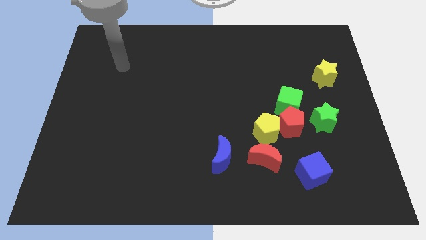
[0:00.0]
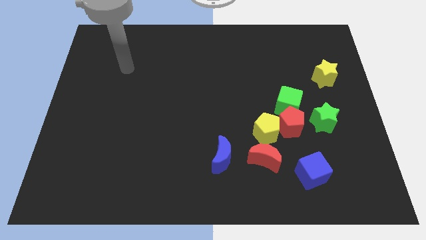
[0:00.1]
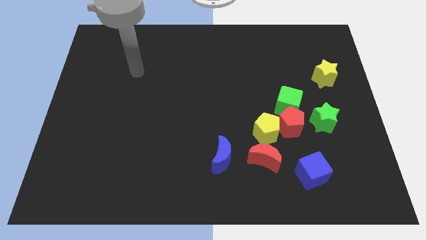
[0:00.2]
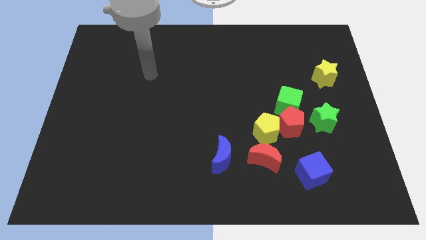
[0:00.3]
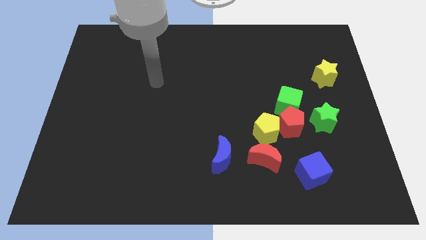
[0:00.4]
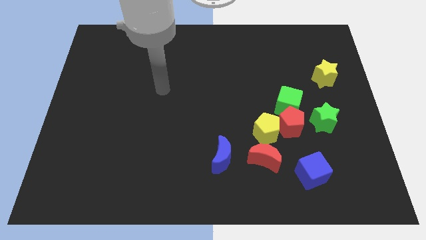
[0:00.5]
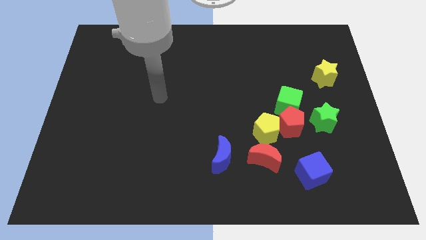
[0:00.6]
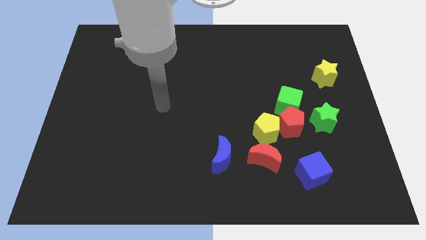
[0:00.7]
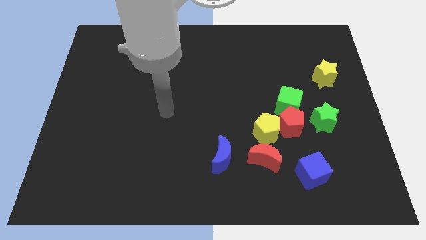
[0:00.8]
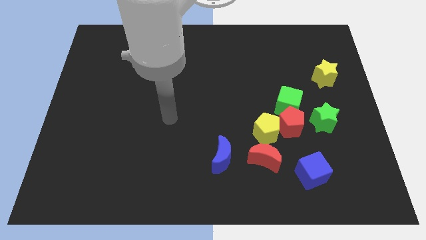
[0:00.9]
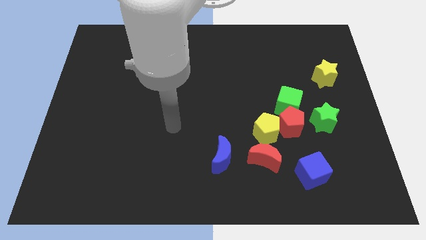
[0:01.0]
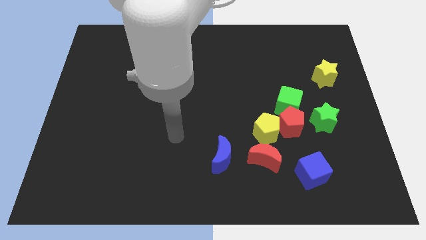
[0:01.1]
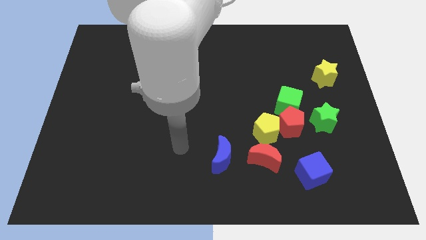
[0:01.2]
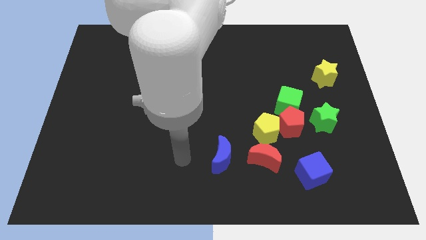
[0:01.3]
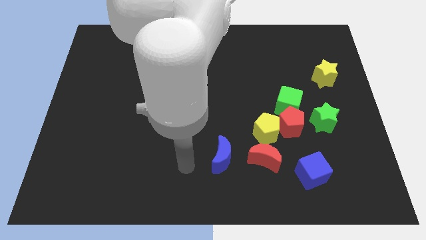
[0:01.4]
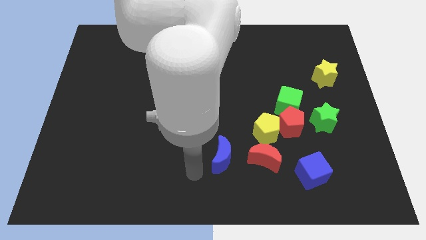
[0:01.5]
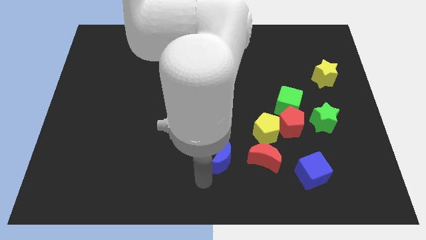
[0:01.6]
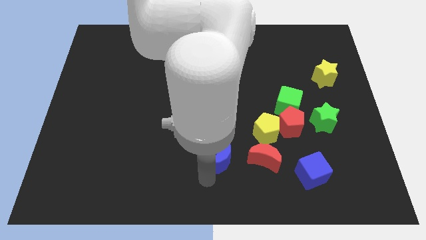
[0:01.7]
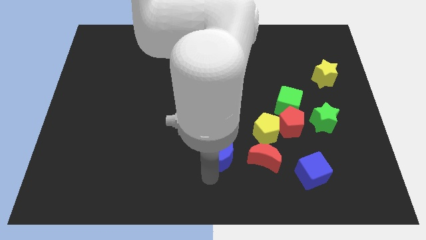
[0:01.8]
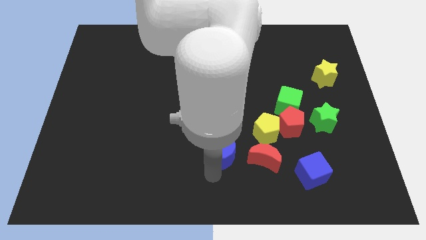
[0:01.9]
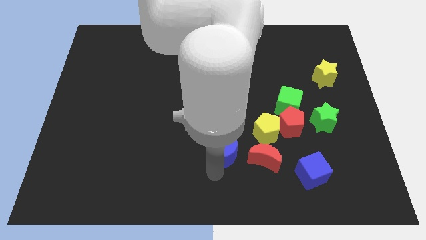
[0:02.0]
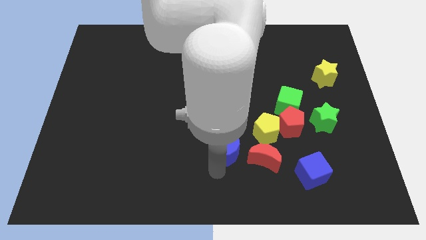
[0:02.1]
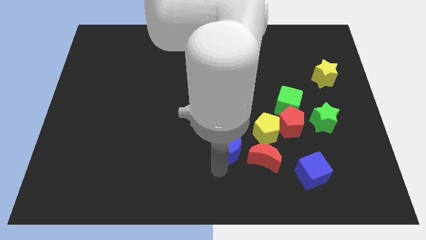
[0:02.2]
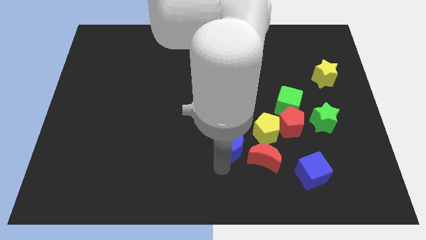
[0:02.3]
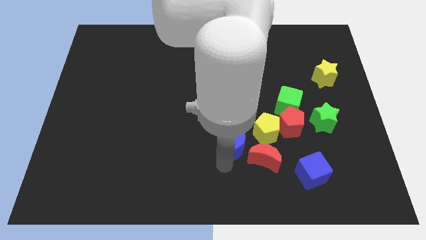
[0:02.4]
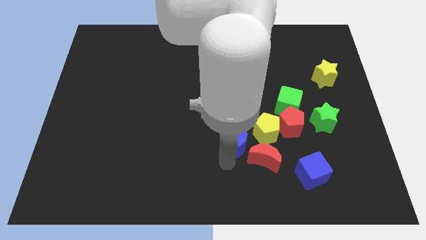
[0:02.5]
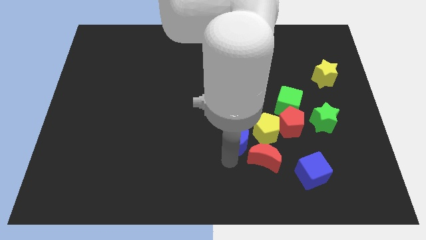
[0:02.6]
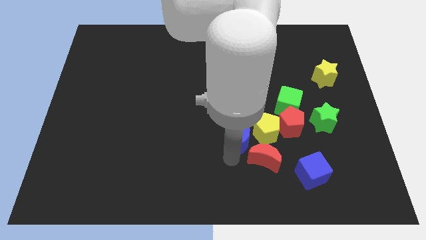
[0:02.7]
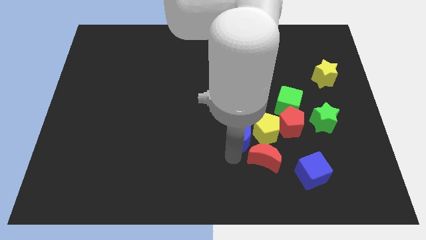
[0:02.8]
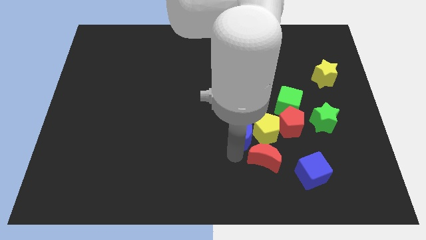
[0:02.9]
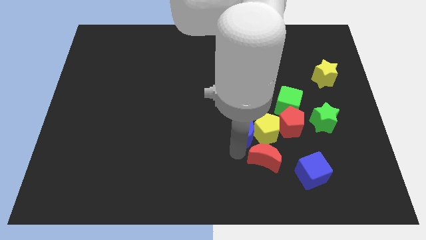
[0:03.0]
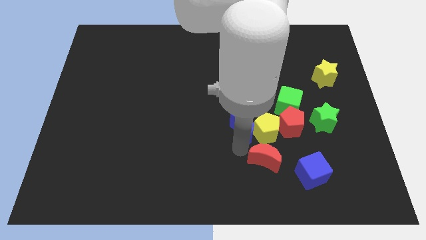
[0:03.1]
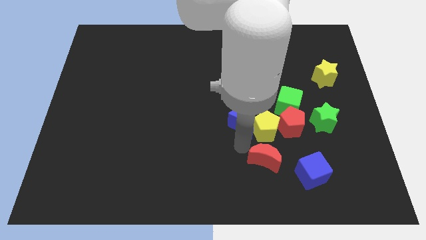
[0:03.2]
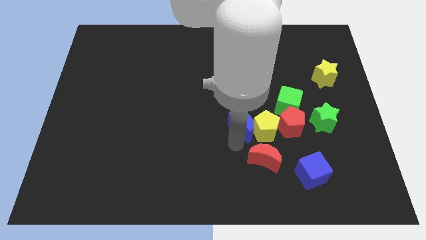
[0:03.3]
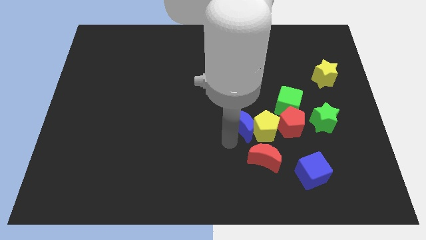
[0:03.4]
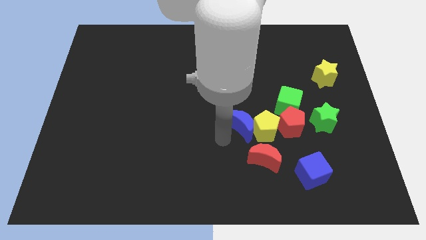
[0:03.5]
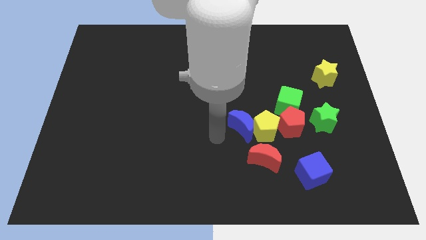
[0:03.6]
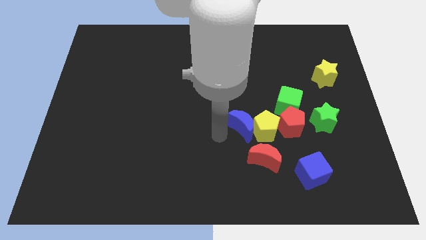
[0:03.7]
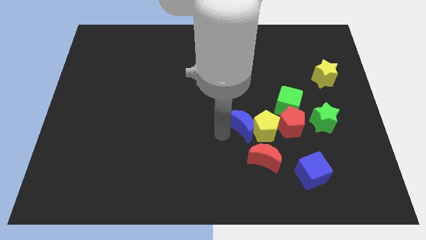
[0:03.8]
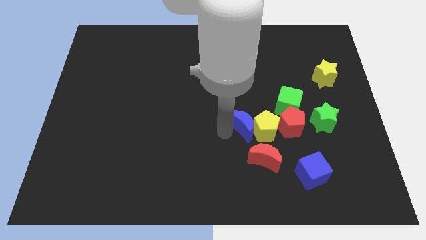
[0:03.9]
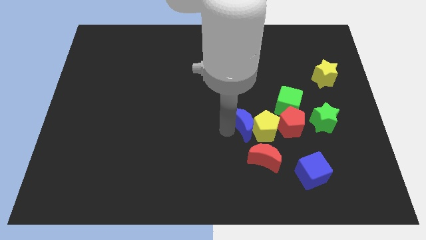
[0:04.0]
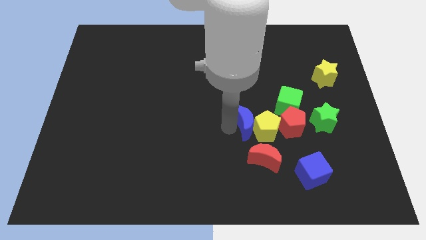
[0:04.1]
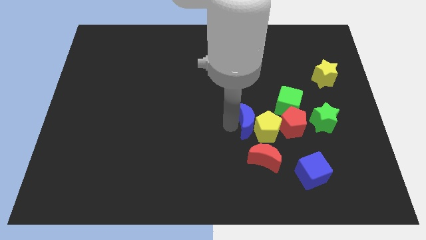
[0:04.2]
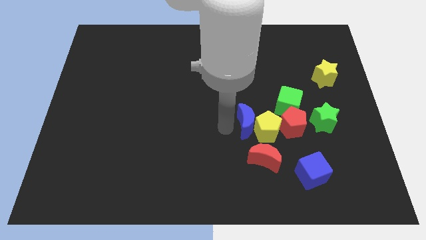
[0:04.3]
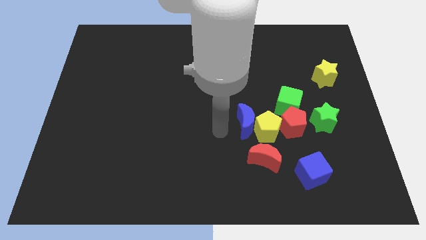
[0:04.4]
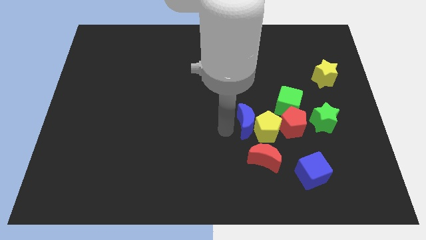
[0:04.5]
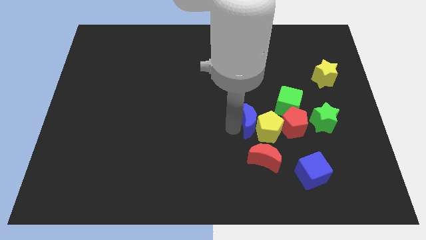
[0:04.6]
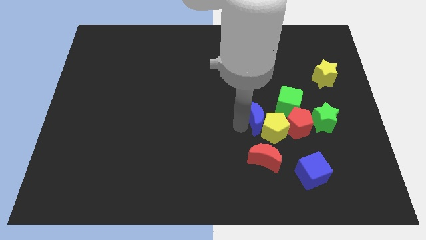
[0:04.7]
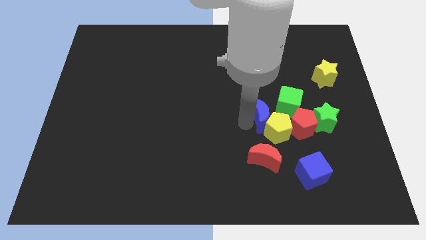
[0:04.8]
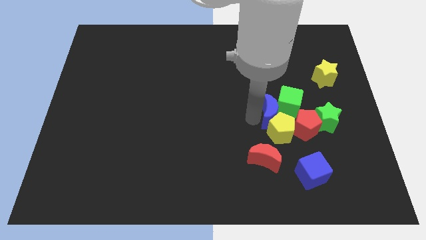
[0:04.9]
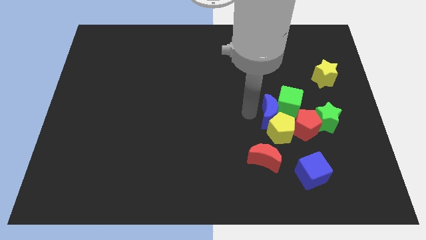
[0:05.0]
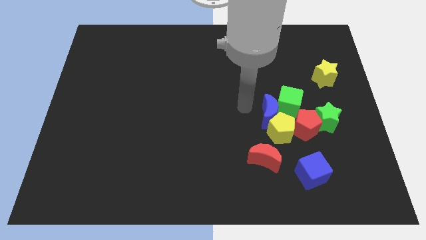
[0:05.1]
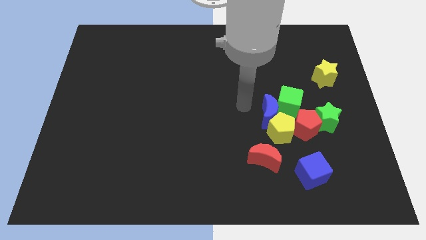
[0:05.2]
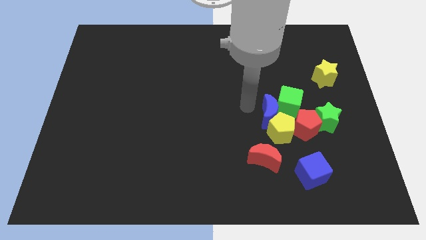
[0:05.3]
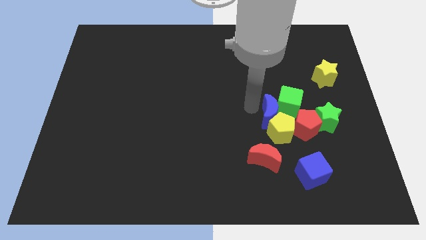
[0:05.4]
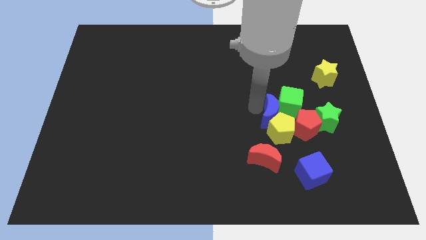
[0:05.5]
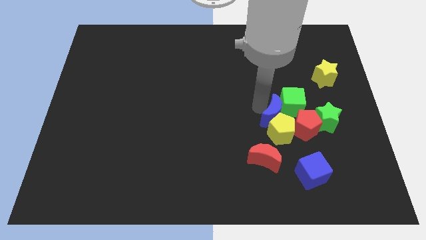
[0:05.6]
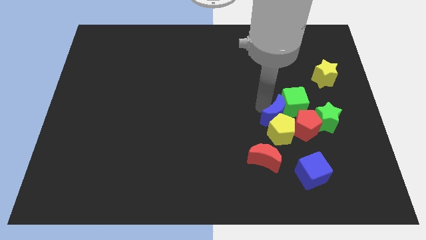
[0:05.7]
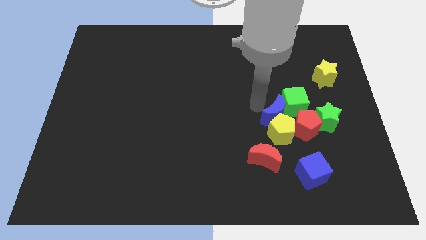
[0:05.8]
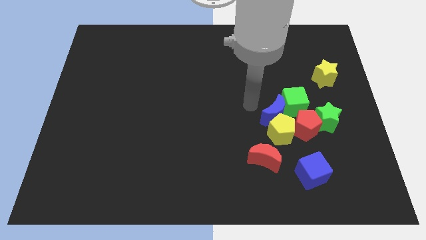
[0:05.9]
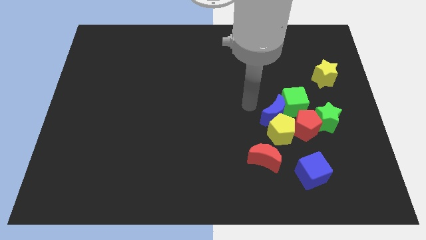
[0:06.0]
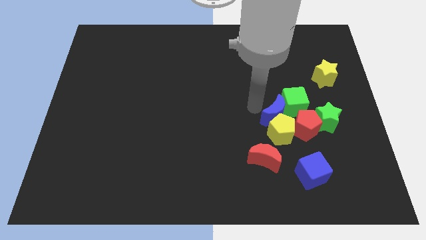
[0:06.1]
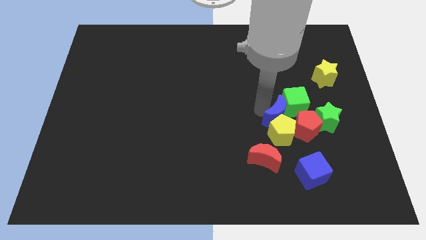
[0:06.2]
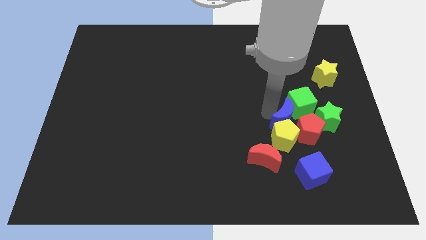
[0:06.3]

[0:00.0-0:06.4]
put the blue moon close to the red pentagon
